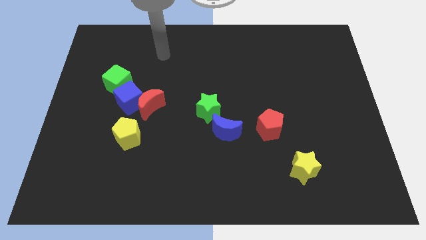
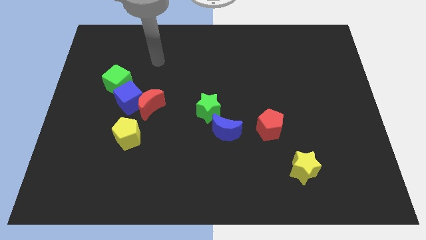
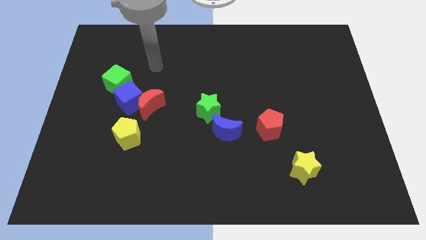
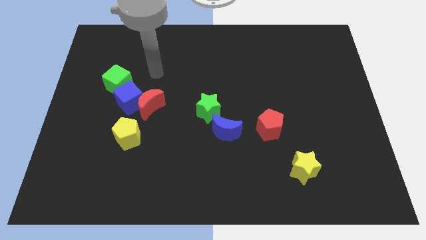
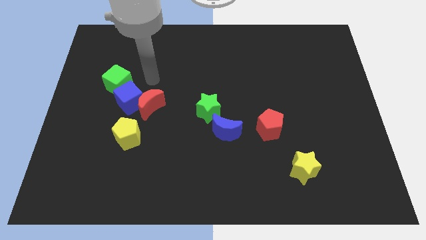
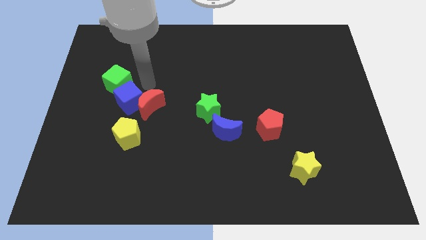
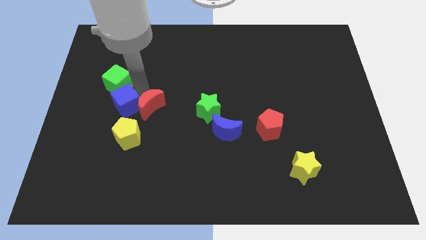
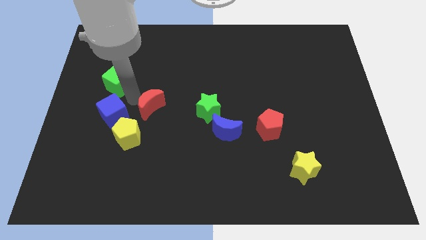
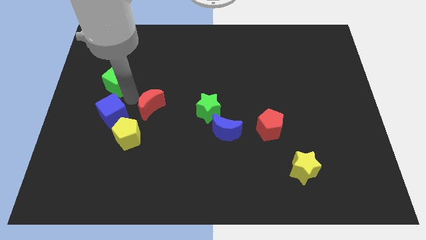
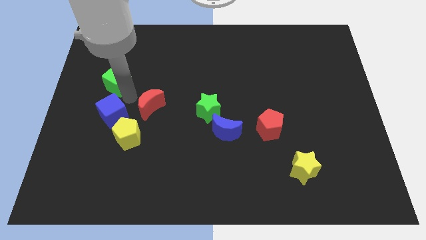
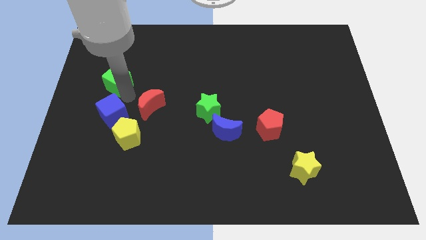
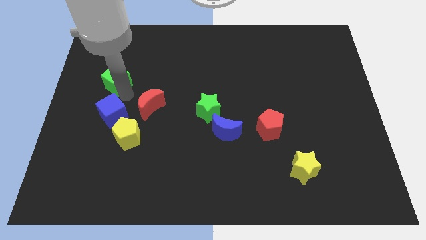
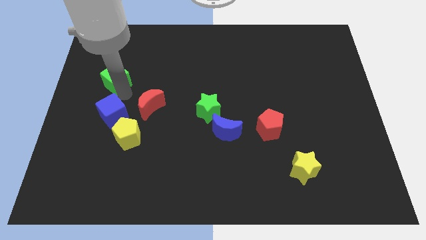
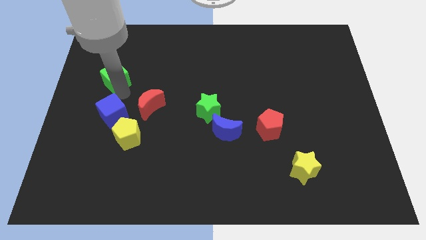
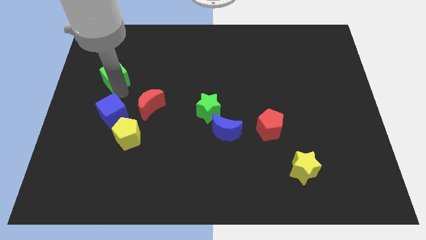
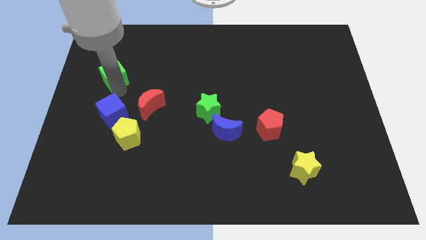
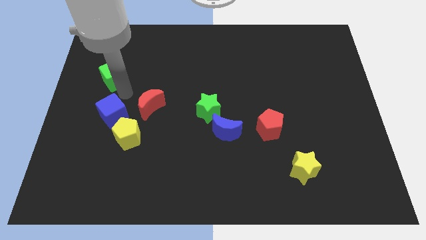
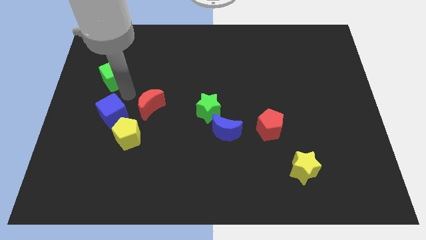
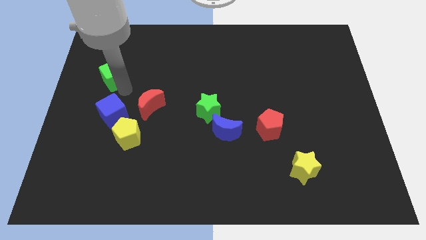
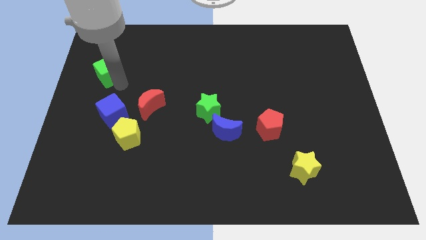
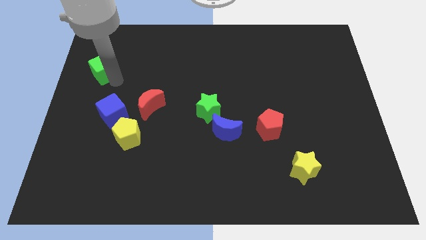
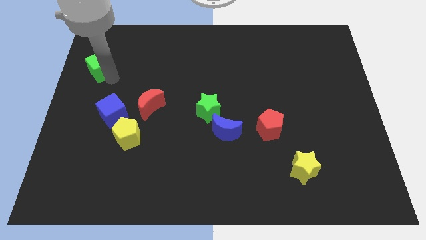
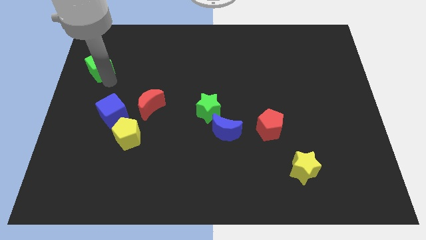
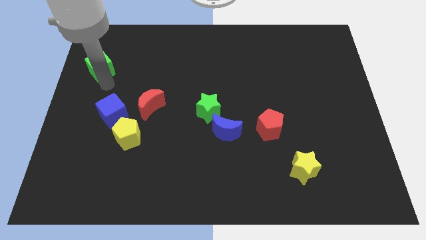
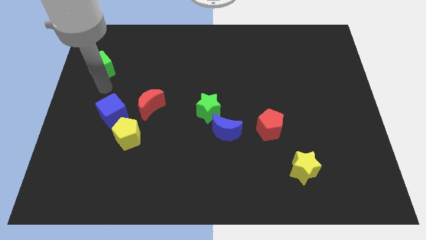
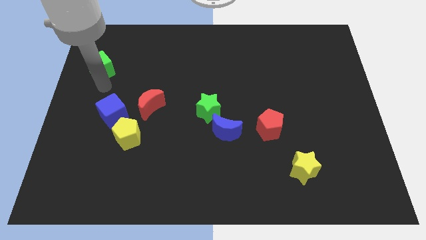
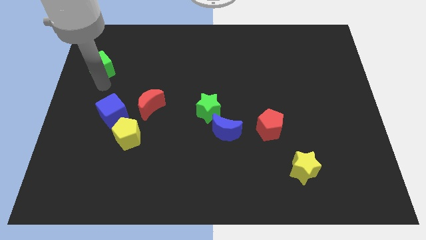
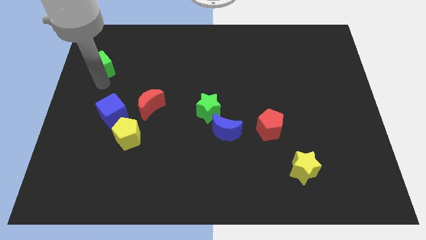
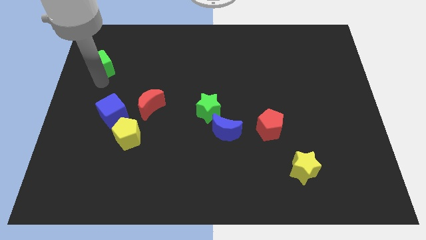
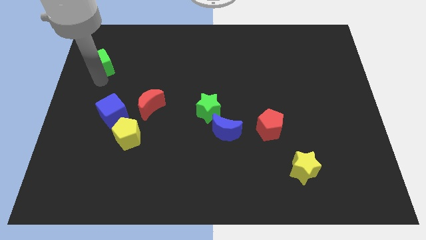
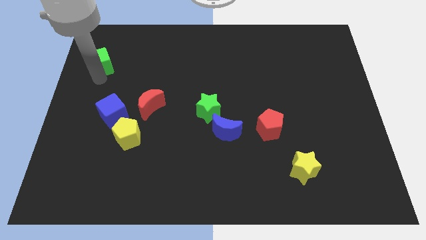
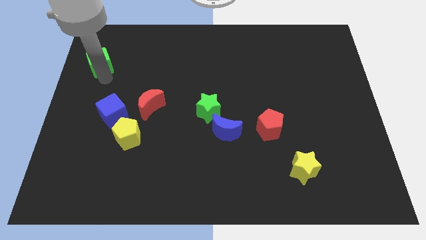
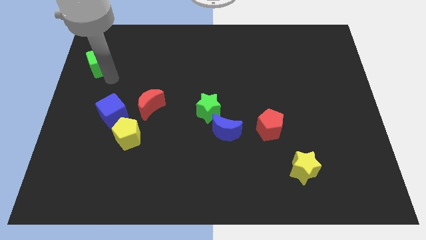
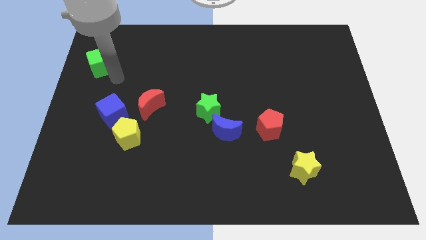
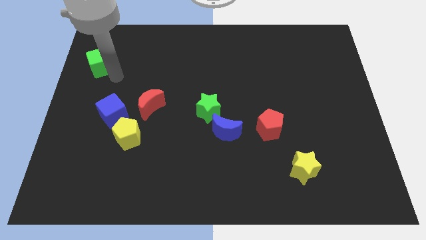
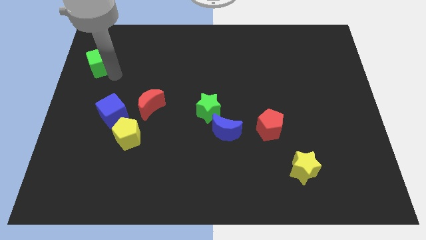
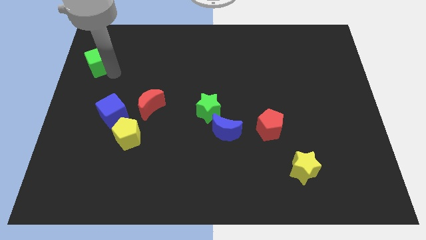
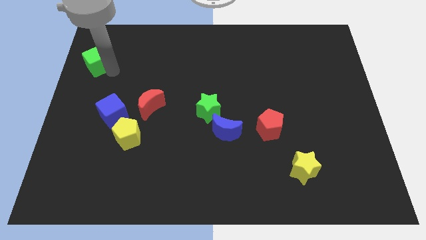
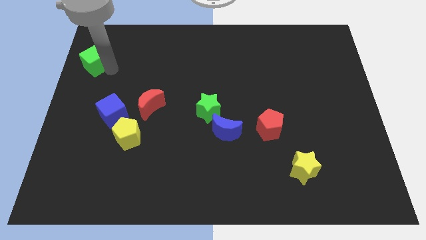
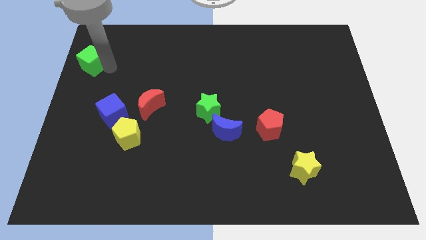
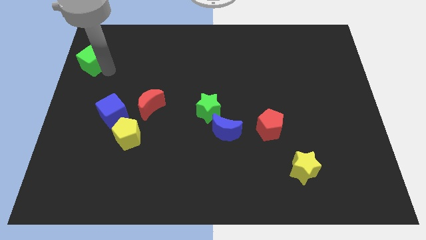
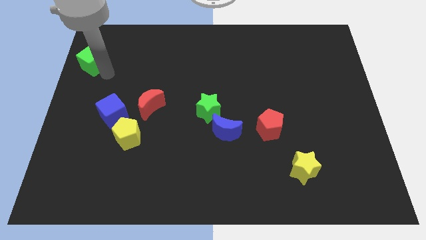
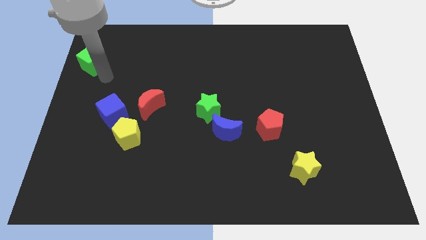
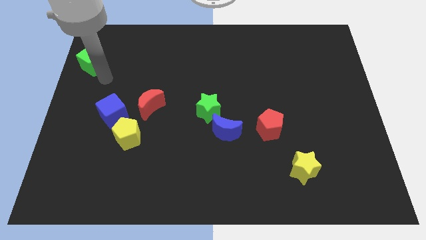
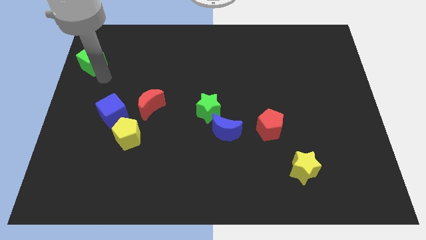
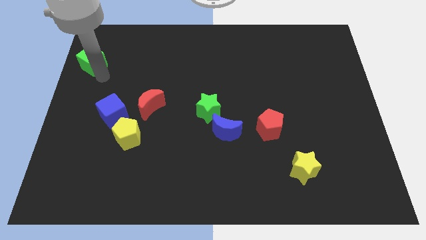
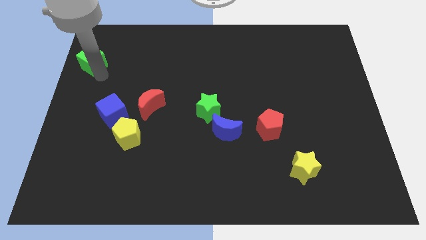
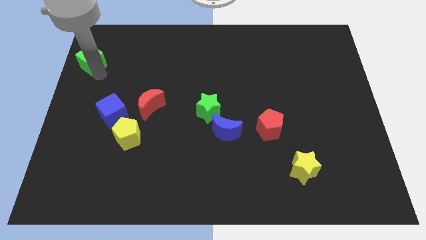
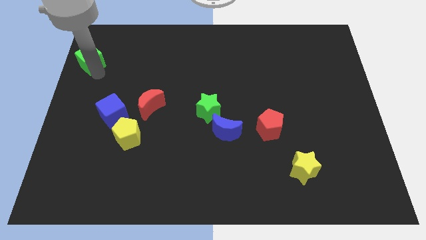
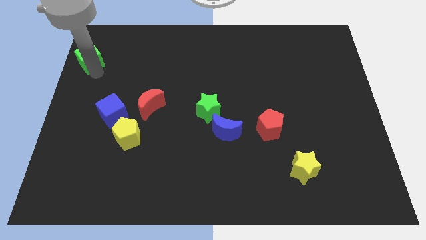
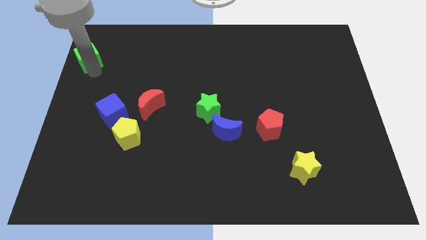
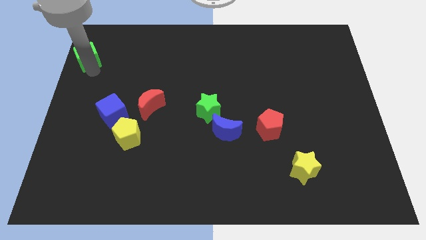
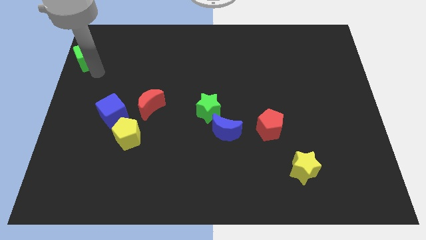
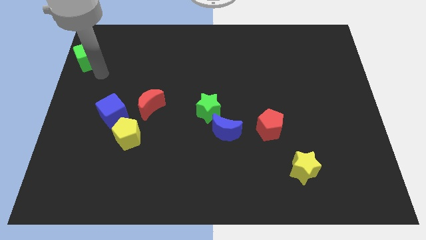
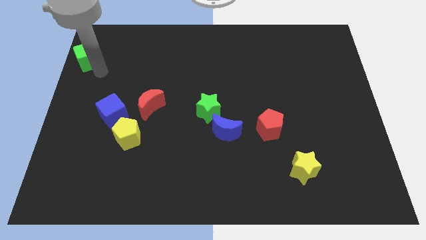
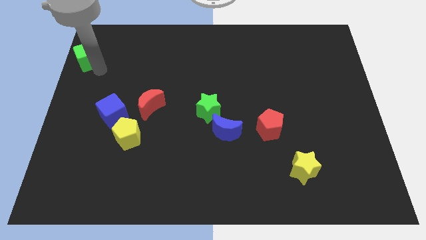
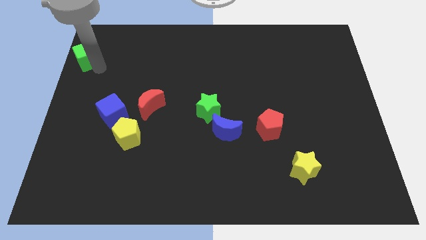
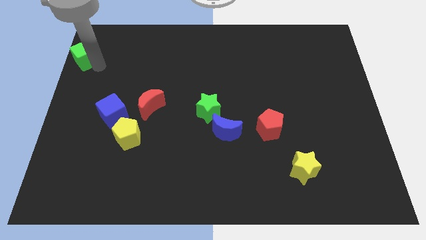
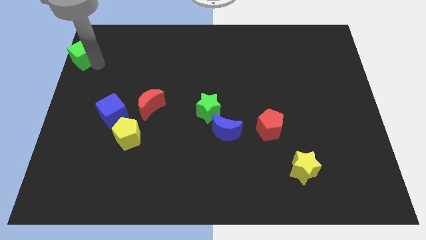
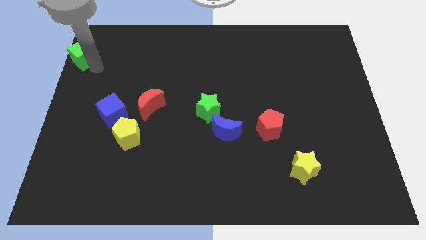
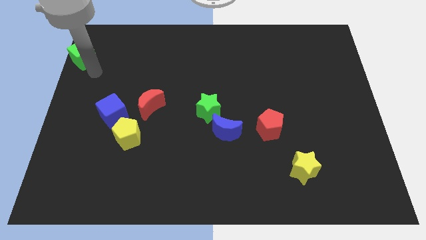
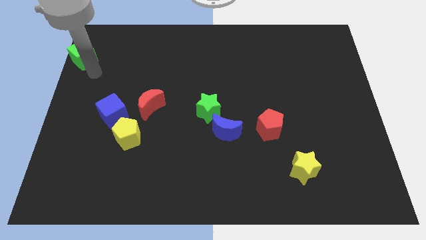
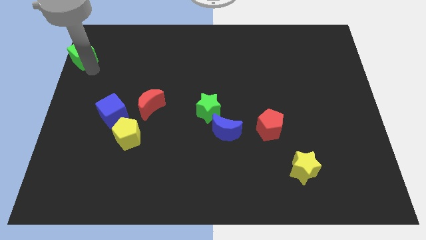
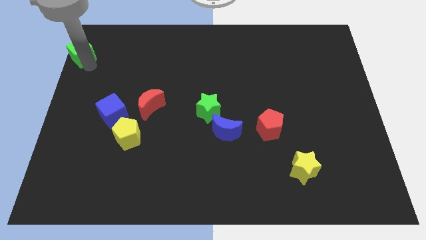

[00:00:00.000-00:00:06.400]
push the green cube to the top left

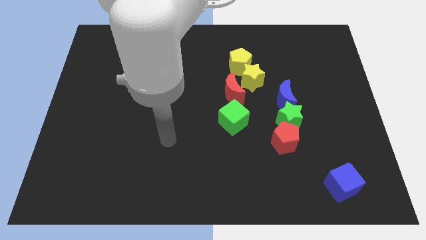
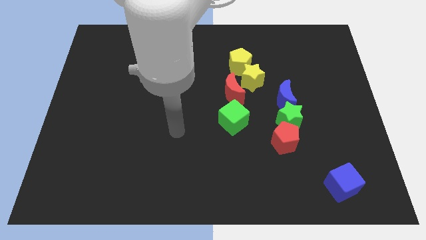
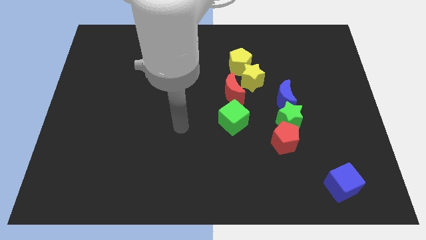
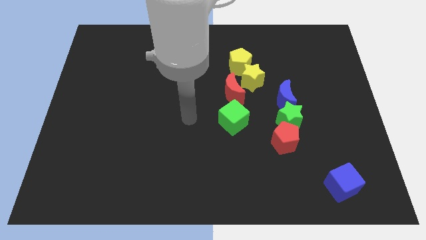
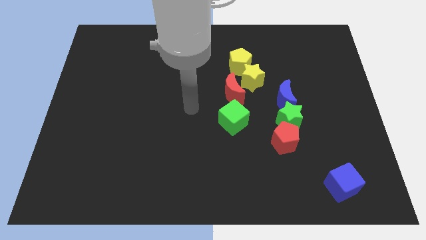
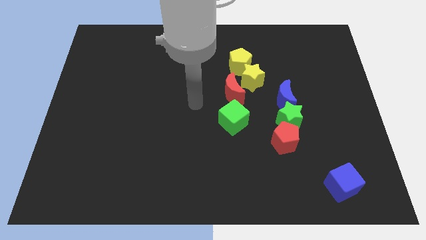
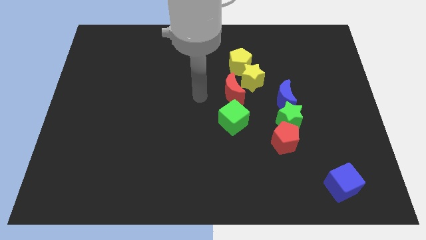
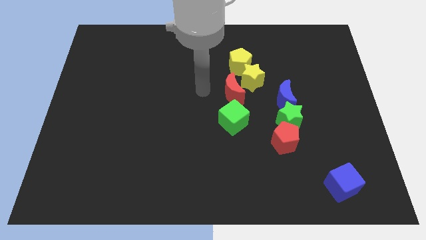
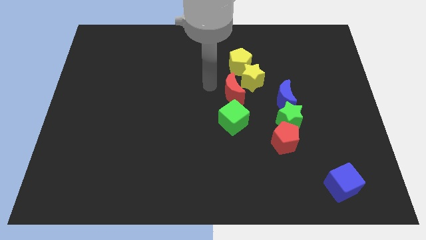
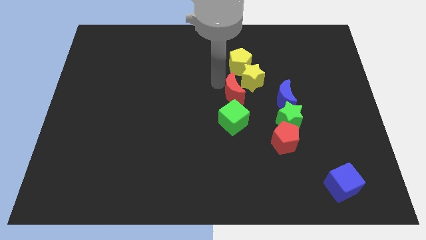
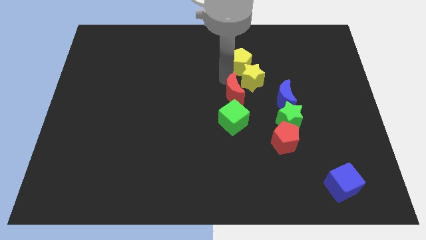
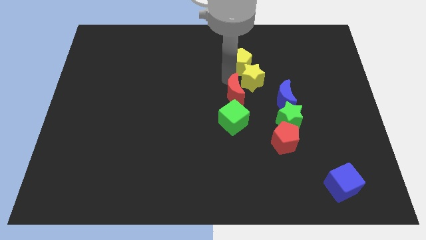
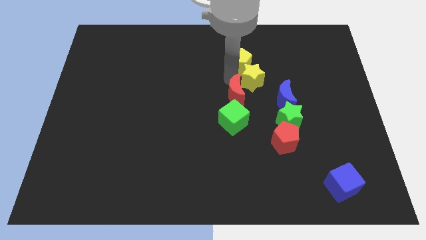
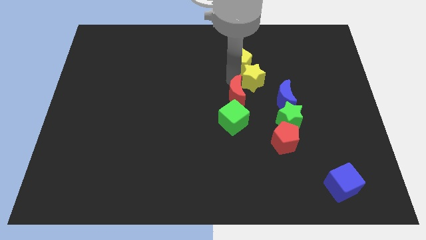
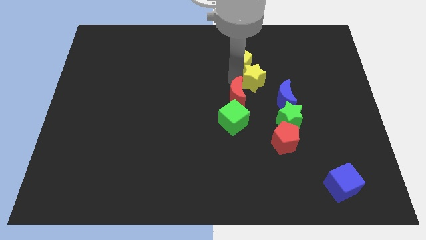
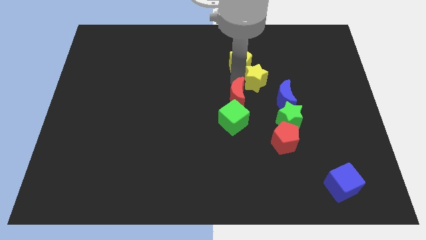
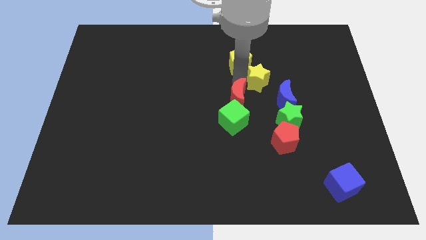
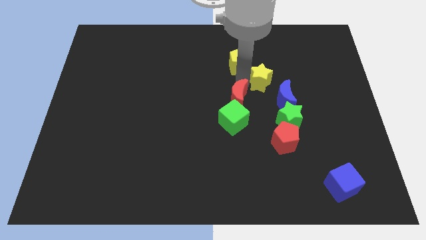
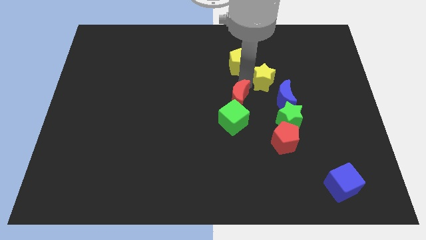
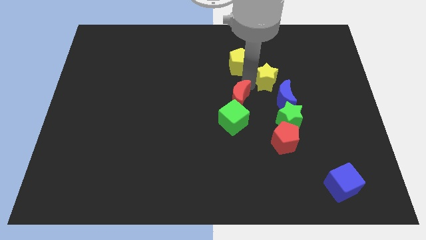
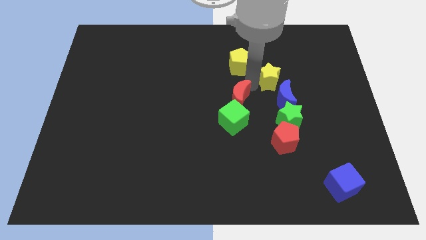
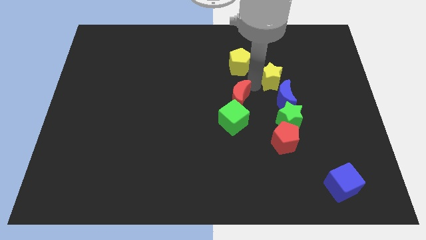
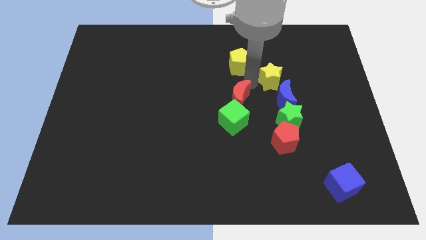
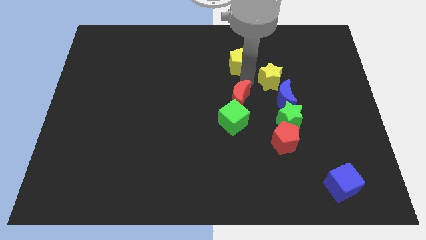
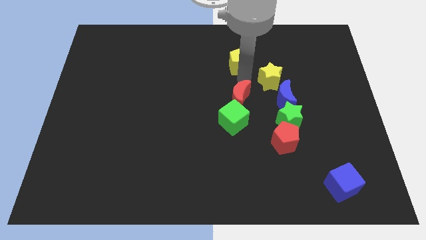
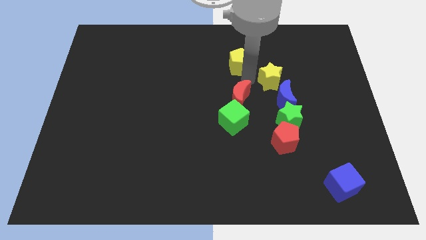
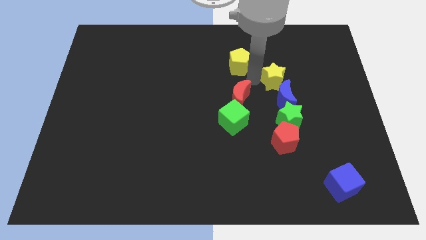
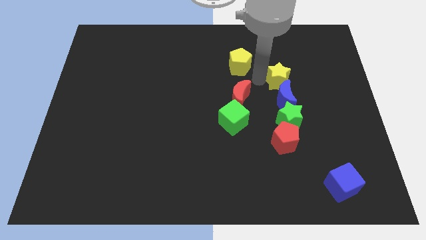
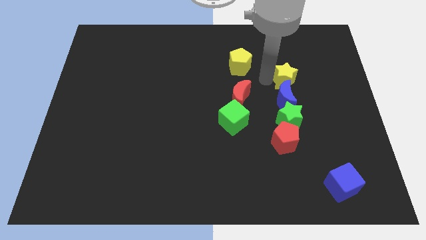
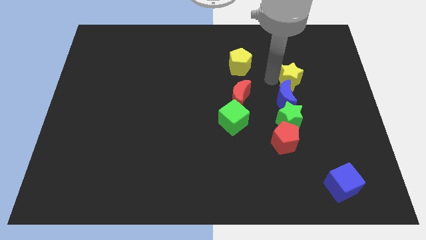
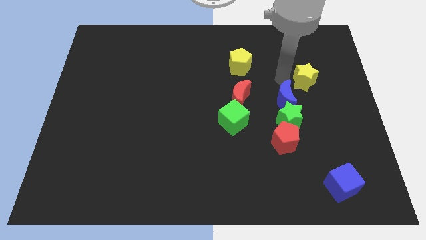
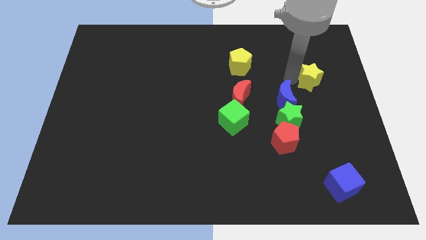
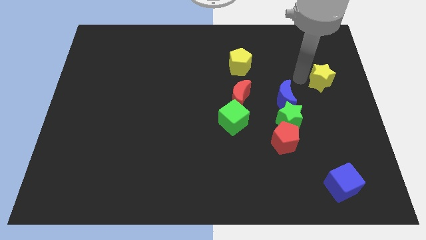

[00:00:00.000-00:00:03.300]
put the yellow star to the center right
